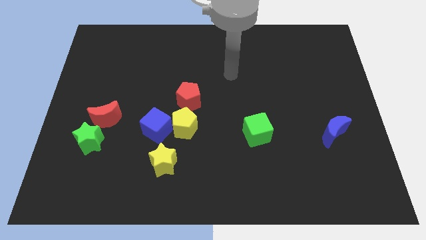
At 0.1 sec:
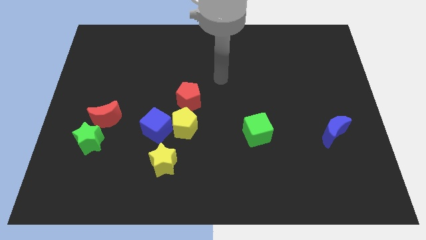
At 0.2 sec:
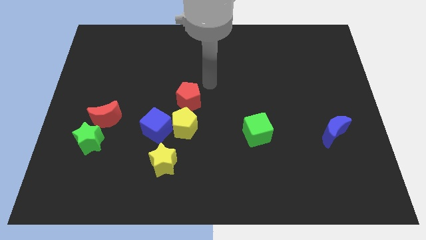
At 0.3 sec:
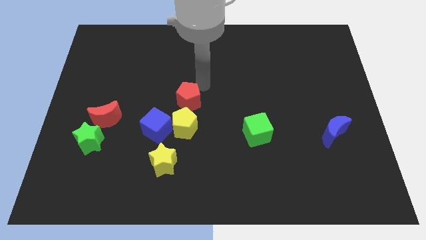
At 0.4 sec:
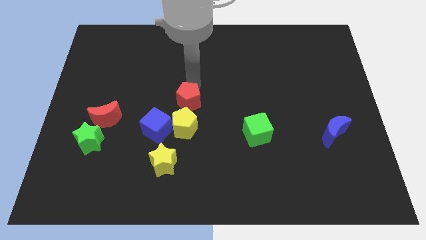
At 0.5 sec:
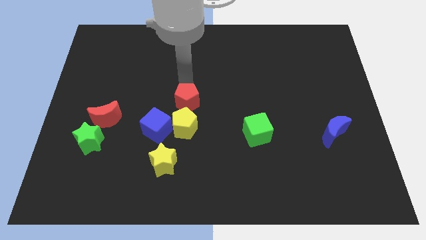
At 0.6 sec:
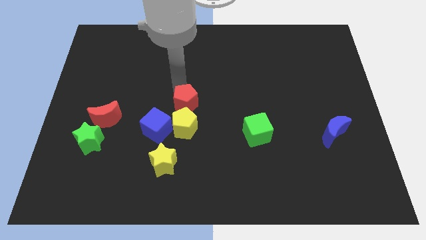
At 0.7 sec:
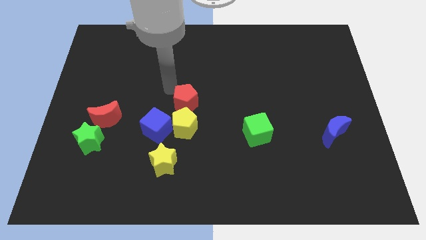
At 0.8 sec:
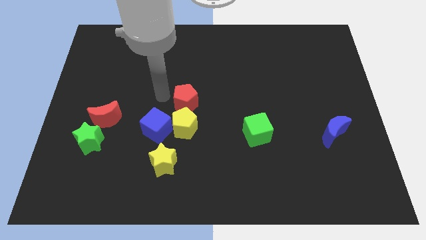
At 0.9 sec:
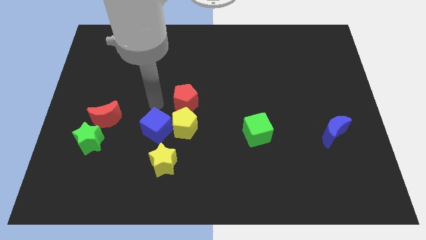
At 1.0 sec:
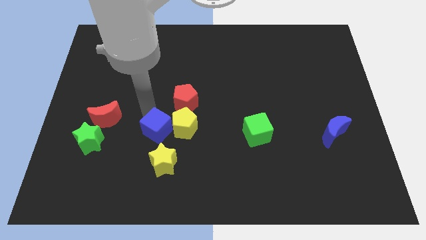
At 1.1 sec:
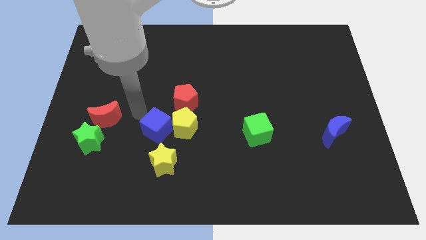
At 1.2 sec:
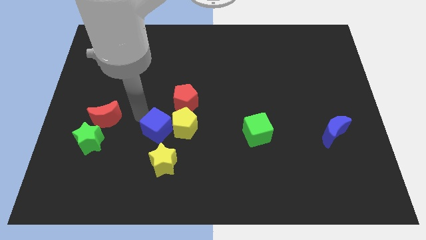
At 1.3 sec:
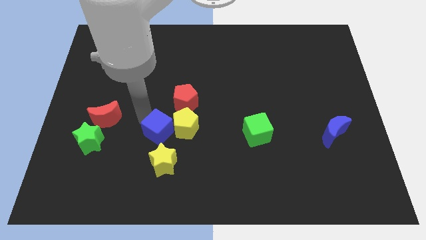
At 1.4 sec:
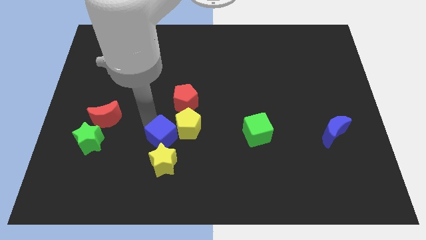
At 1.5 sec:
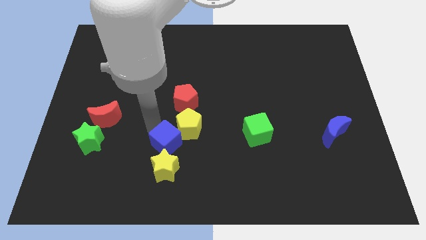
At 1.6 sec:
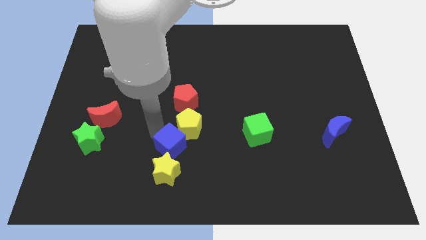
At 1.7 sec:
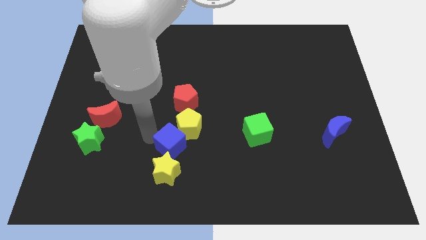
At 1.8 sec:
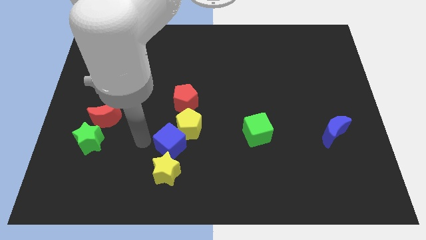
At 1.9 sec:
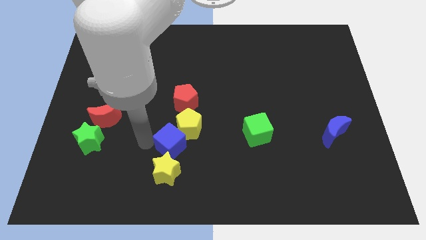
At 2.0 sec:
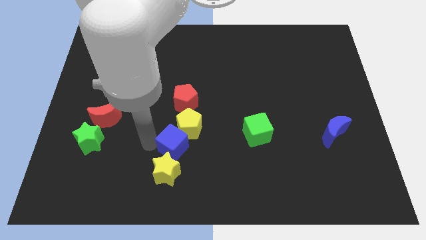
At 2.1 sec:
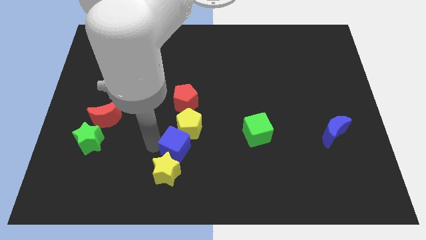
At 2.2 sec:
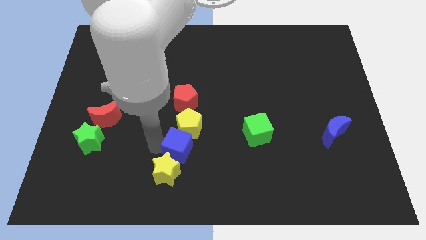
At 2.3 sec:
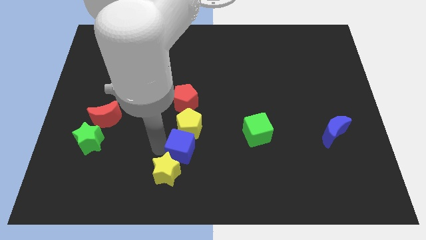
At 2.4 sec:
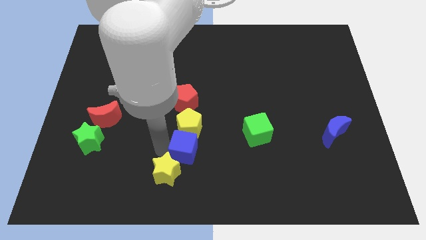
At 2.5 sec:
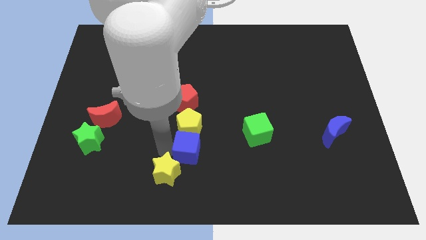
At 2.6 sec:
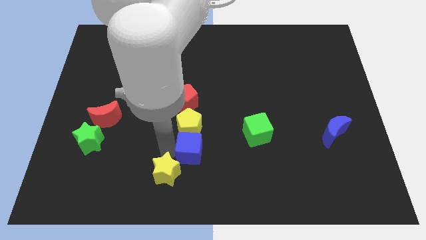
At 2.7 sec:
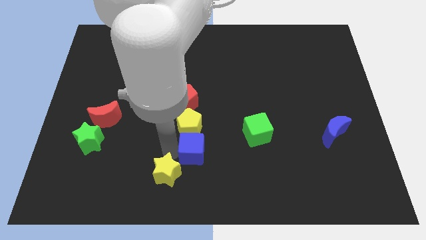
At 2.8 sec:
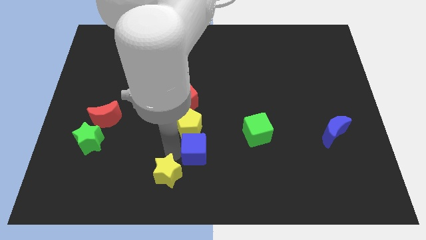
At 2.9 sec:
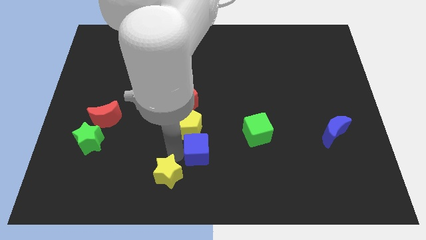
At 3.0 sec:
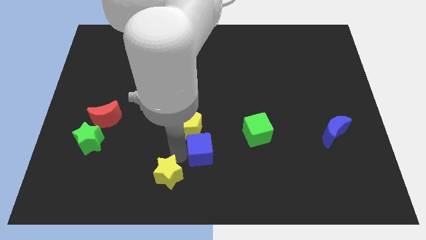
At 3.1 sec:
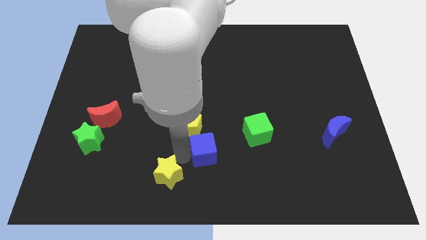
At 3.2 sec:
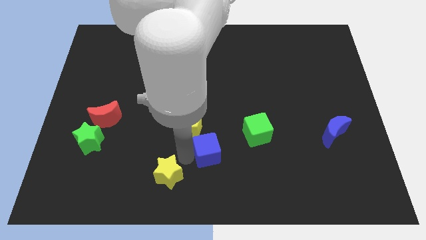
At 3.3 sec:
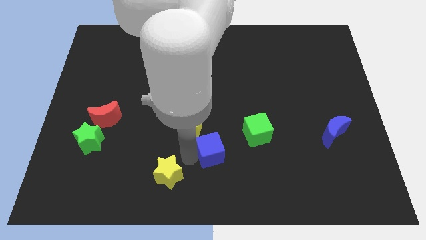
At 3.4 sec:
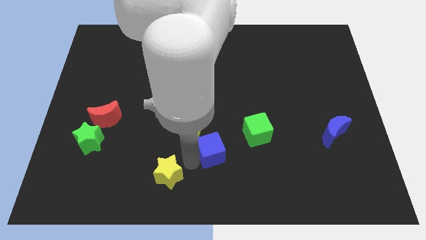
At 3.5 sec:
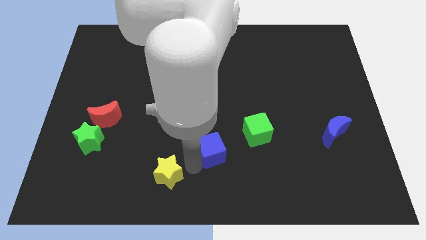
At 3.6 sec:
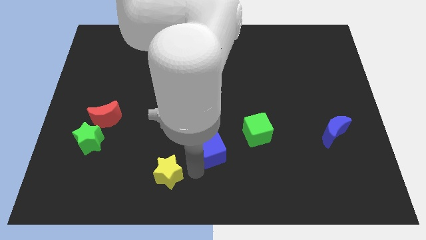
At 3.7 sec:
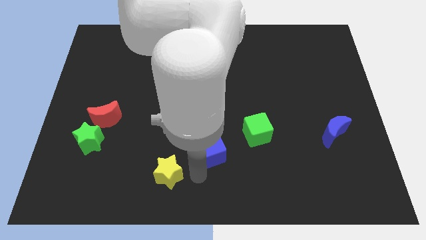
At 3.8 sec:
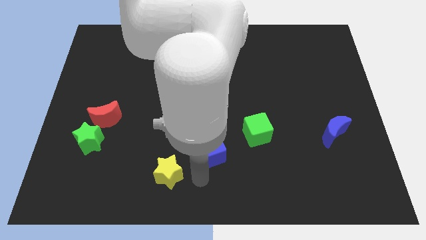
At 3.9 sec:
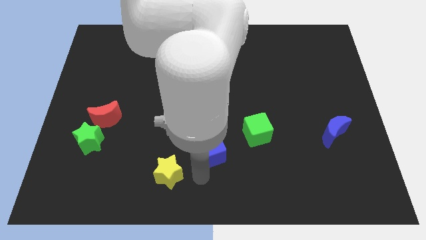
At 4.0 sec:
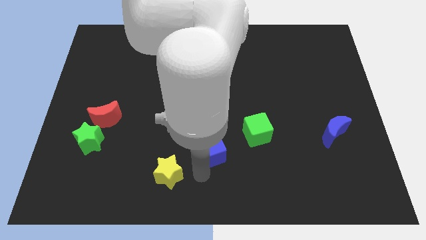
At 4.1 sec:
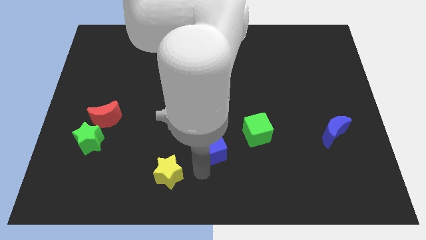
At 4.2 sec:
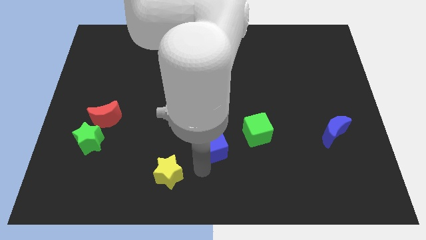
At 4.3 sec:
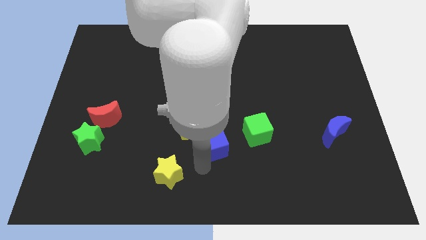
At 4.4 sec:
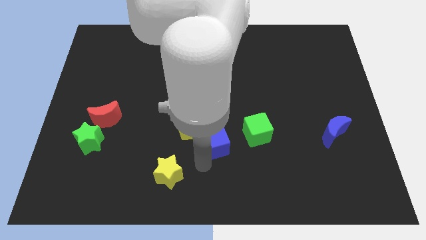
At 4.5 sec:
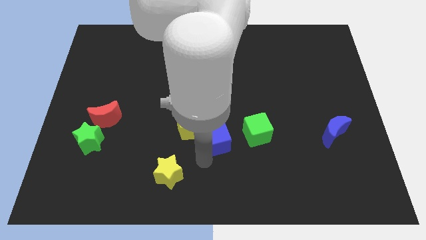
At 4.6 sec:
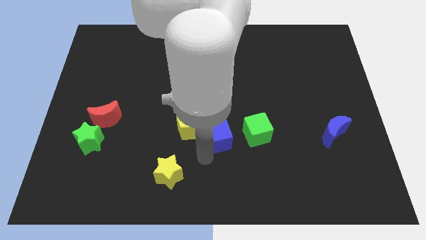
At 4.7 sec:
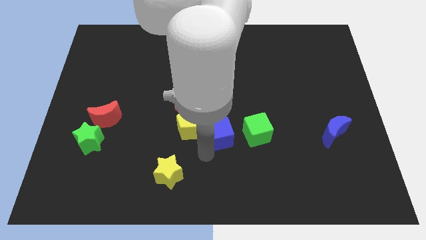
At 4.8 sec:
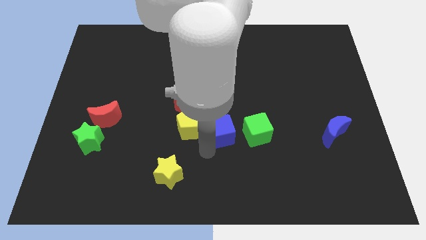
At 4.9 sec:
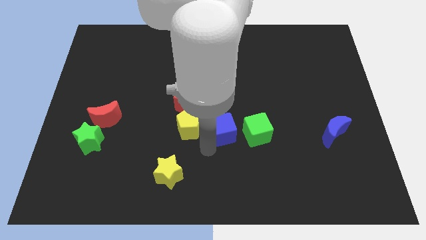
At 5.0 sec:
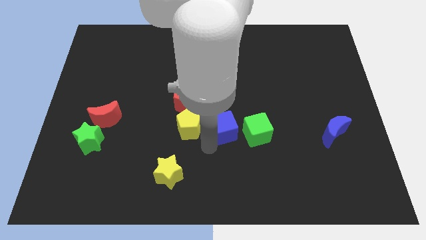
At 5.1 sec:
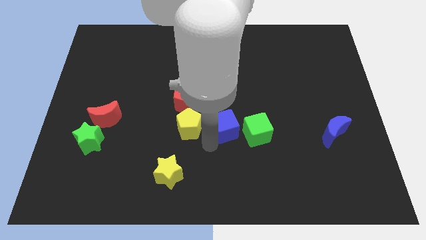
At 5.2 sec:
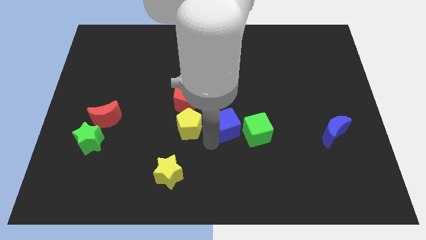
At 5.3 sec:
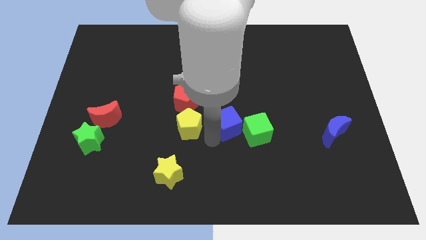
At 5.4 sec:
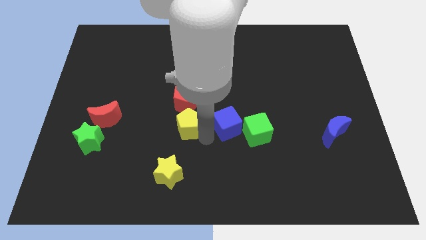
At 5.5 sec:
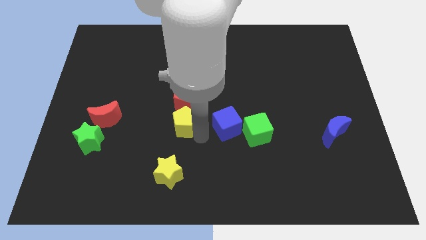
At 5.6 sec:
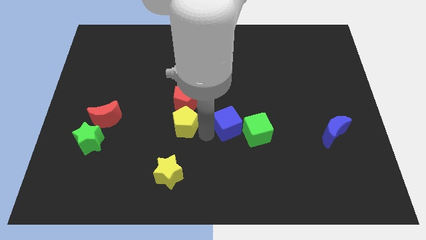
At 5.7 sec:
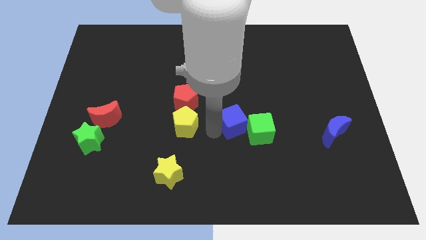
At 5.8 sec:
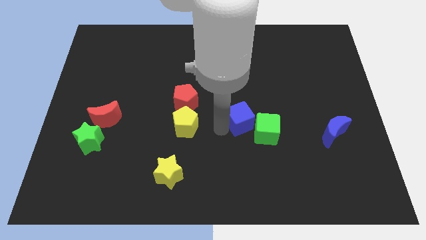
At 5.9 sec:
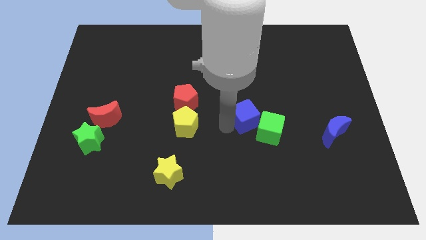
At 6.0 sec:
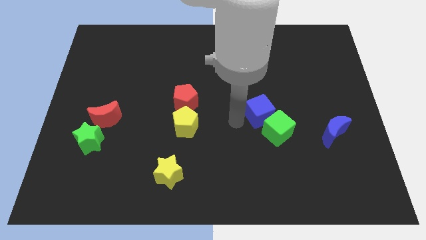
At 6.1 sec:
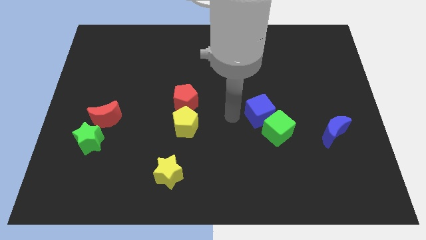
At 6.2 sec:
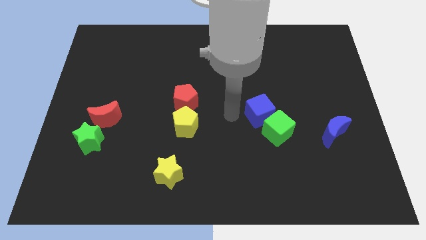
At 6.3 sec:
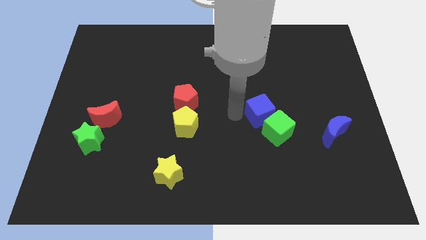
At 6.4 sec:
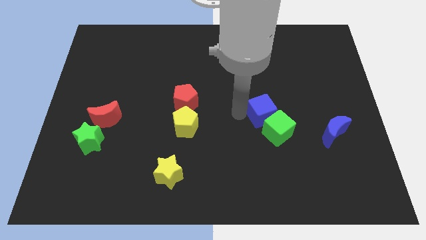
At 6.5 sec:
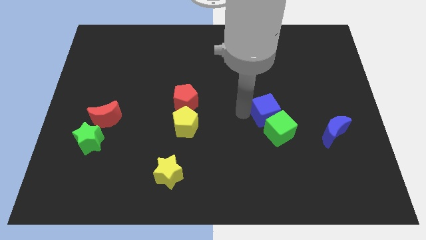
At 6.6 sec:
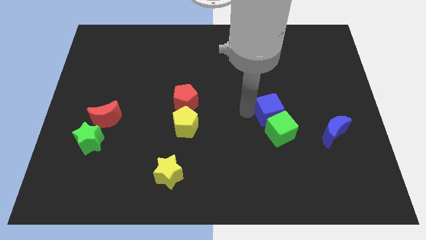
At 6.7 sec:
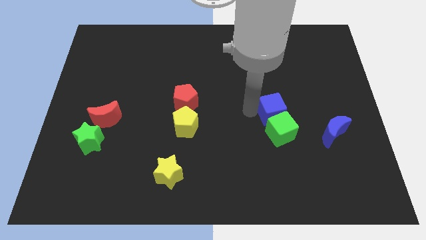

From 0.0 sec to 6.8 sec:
put the blue cube diagonally up and to the right of the green cube

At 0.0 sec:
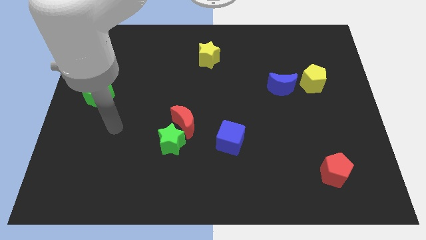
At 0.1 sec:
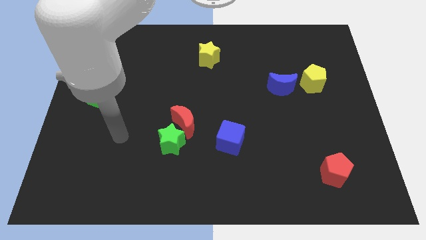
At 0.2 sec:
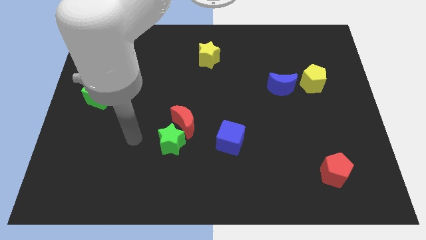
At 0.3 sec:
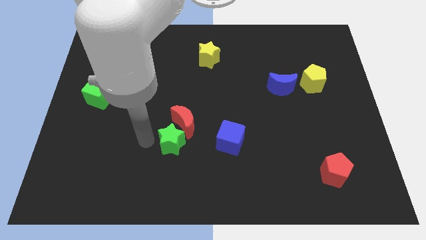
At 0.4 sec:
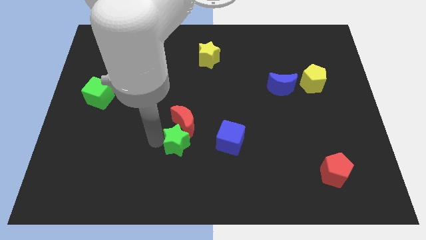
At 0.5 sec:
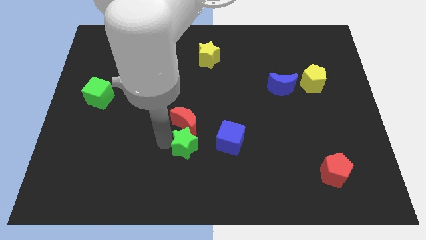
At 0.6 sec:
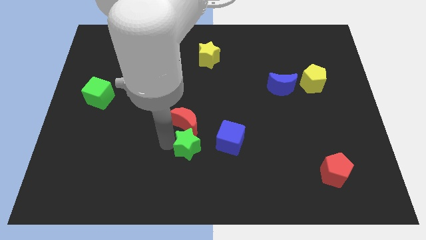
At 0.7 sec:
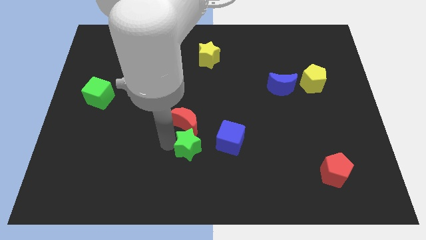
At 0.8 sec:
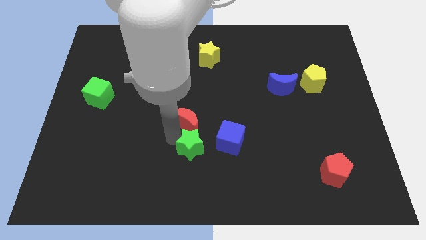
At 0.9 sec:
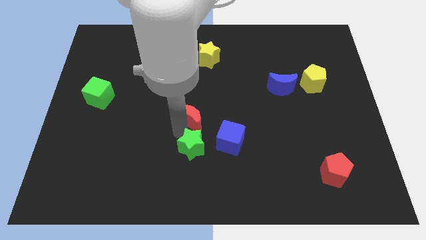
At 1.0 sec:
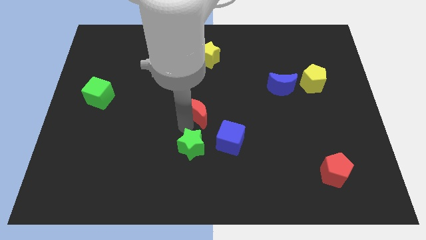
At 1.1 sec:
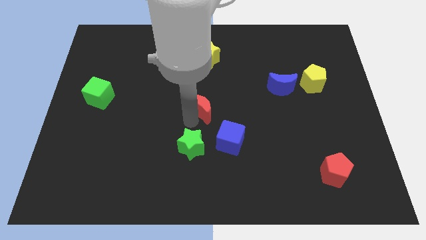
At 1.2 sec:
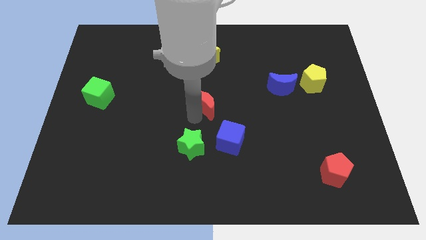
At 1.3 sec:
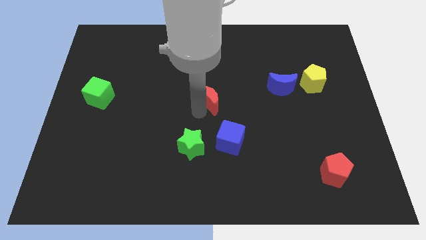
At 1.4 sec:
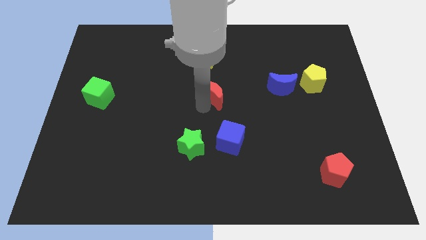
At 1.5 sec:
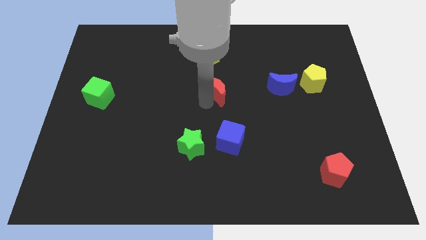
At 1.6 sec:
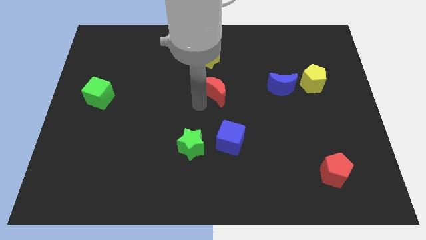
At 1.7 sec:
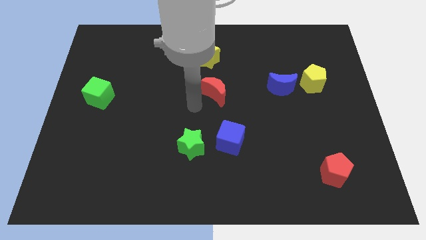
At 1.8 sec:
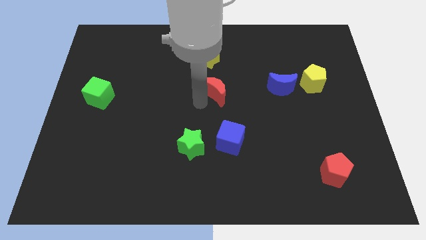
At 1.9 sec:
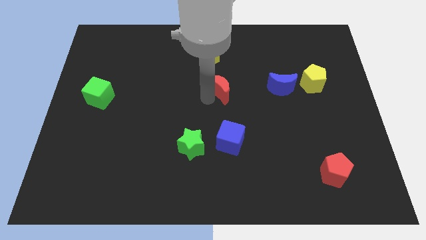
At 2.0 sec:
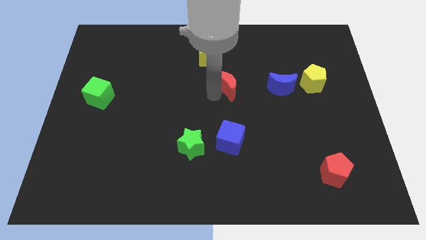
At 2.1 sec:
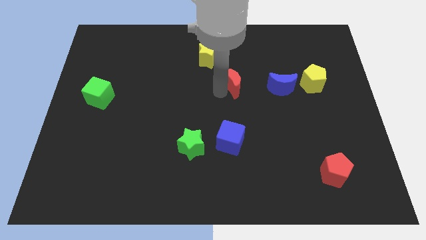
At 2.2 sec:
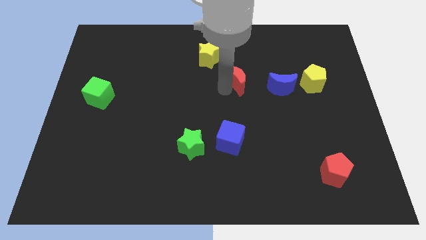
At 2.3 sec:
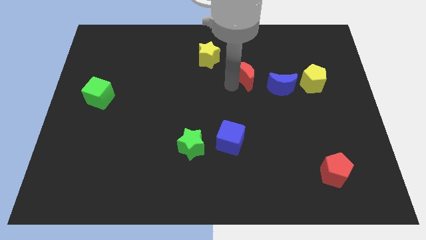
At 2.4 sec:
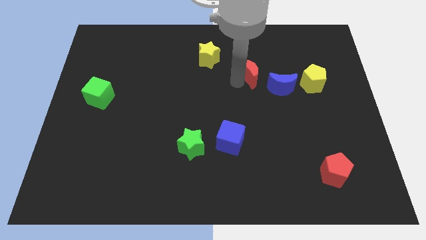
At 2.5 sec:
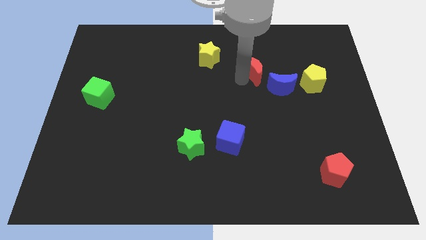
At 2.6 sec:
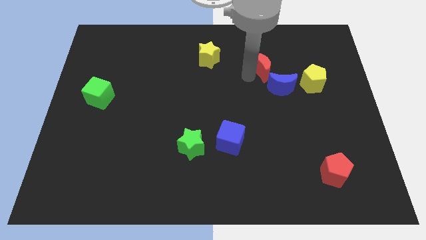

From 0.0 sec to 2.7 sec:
slide the red moon above the blue moon
